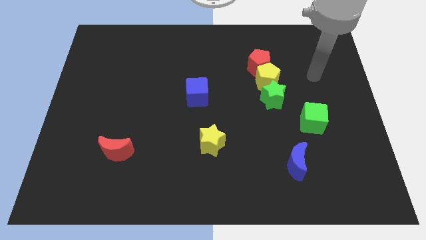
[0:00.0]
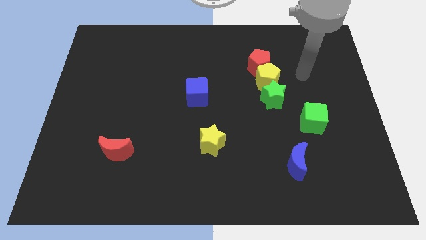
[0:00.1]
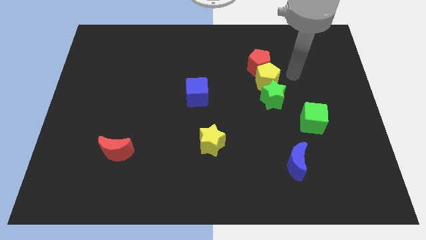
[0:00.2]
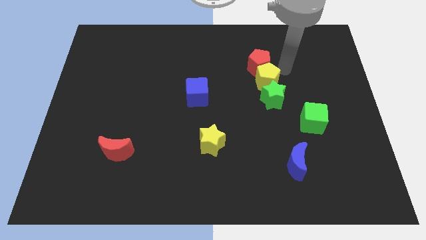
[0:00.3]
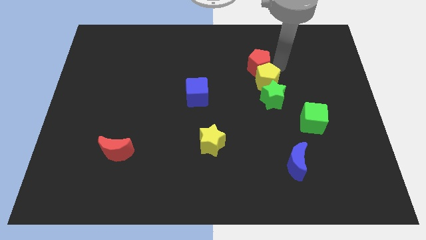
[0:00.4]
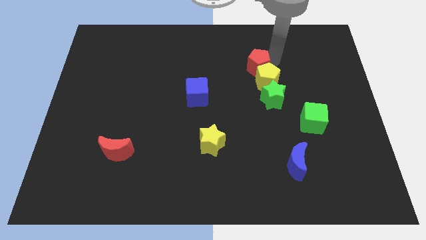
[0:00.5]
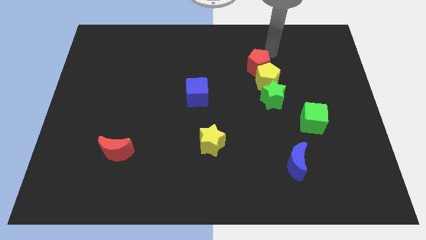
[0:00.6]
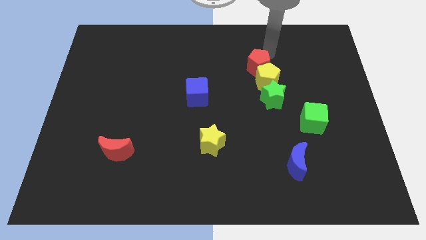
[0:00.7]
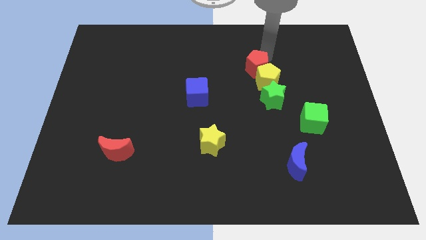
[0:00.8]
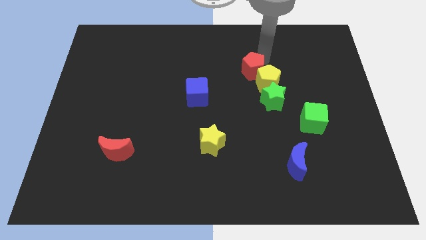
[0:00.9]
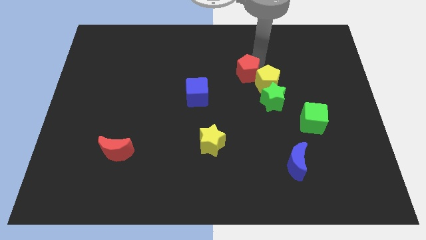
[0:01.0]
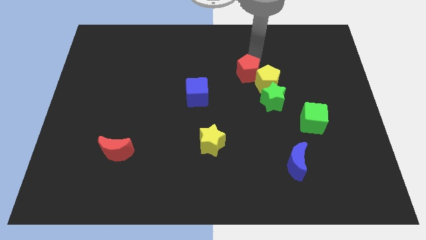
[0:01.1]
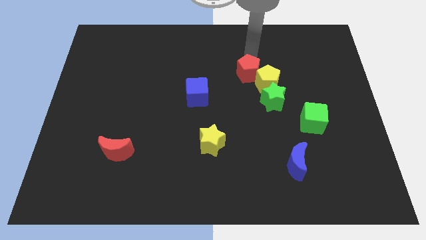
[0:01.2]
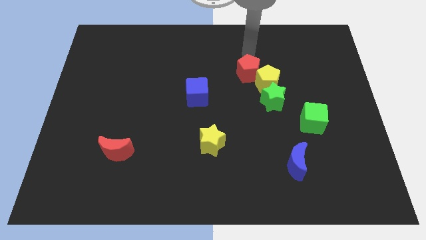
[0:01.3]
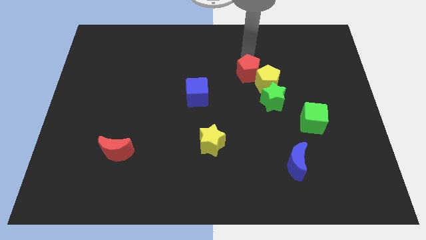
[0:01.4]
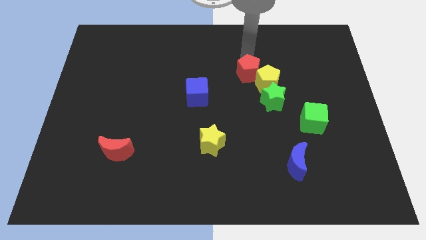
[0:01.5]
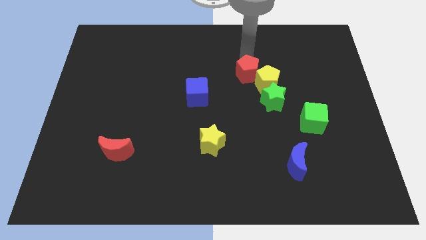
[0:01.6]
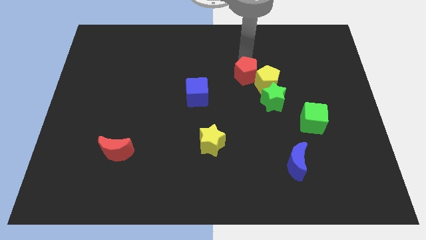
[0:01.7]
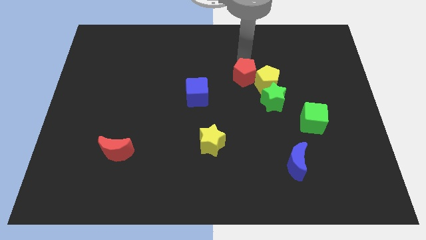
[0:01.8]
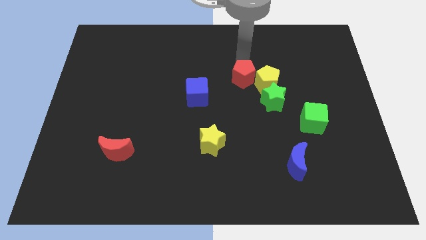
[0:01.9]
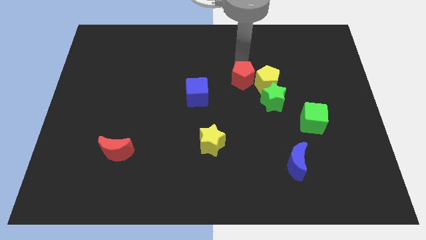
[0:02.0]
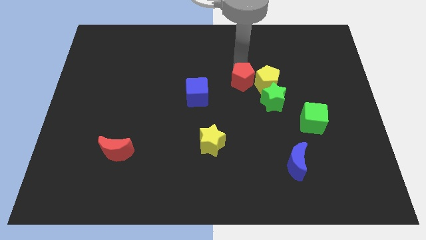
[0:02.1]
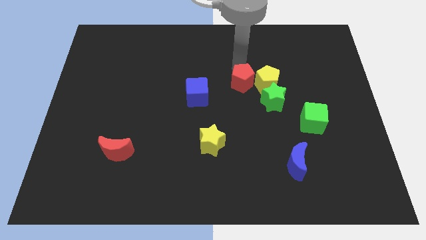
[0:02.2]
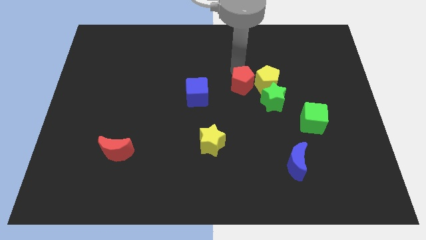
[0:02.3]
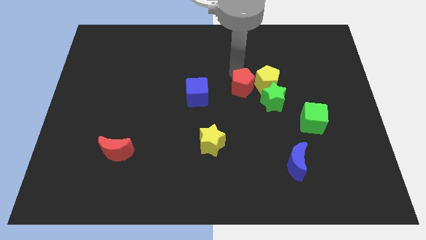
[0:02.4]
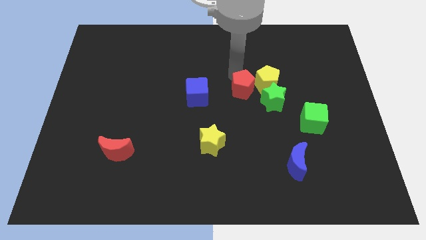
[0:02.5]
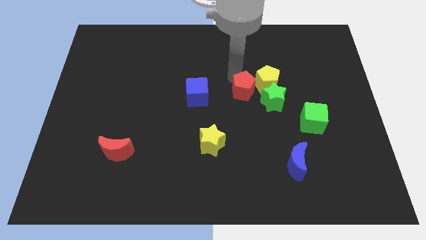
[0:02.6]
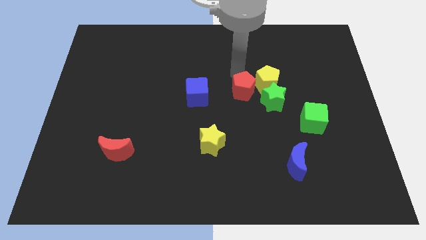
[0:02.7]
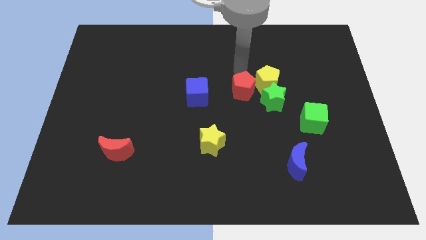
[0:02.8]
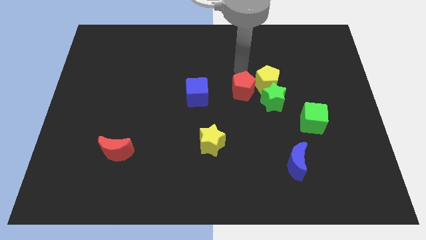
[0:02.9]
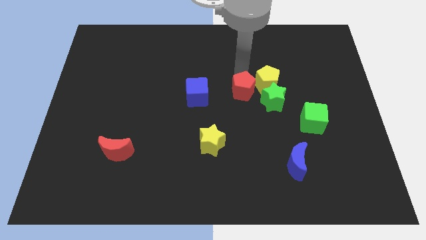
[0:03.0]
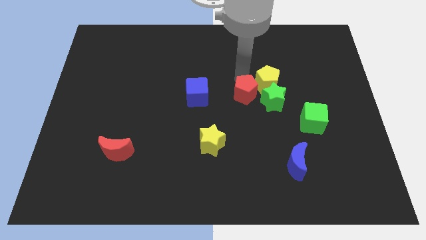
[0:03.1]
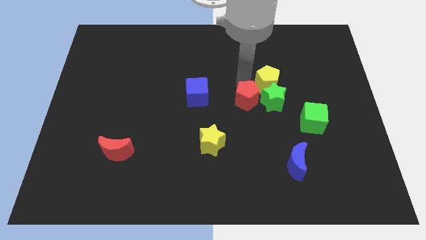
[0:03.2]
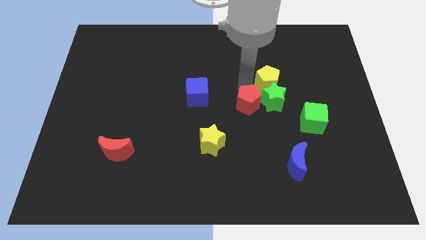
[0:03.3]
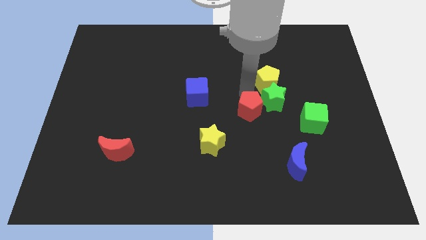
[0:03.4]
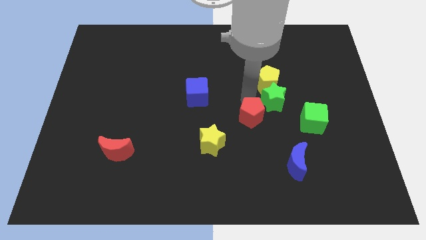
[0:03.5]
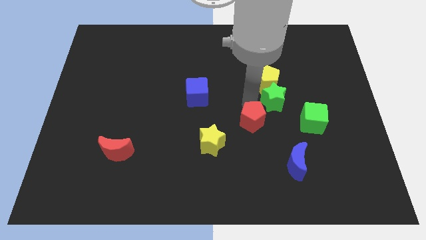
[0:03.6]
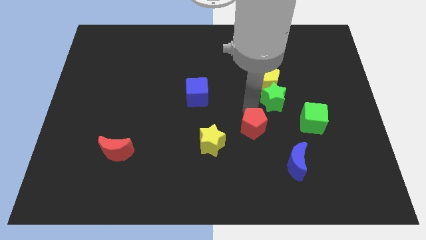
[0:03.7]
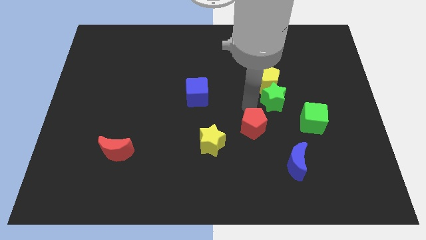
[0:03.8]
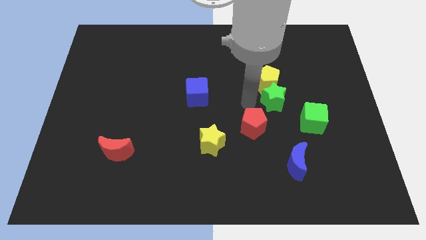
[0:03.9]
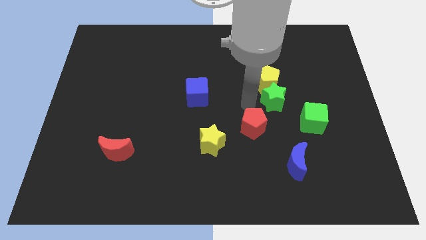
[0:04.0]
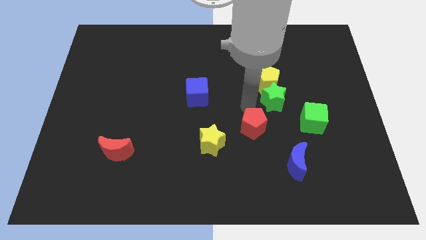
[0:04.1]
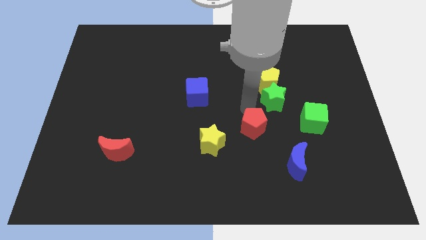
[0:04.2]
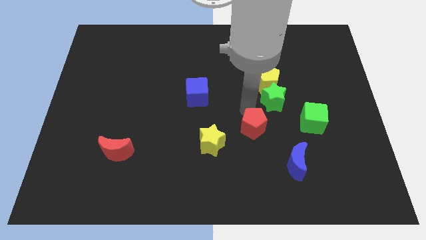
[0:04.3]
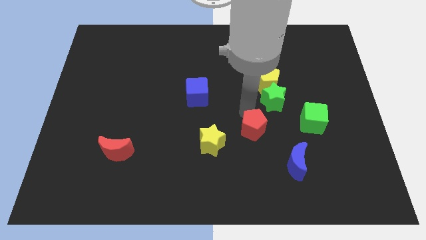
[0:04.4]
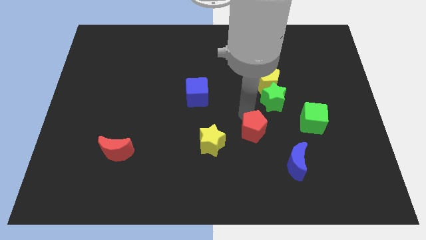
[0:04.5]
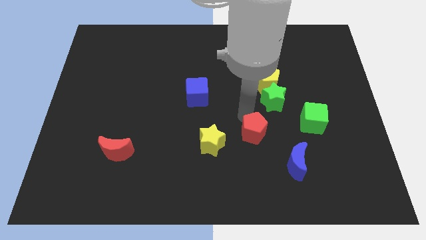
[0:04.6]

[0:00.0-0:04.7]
slide the red pentagon downwards

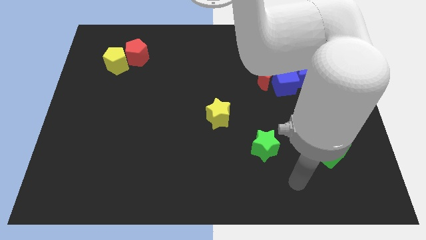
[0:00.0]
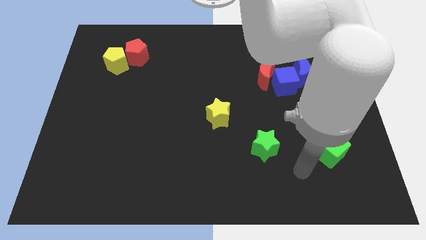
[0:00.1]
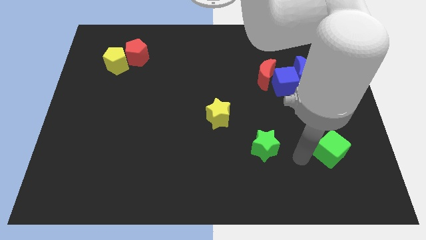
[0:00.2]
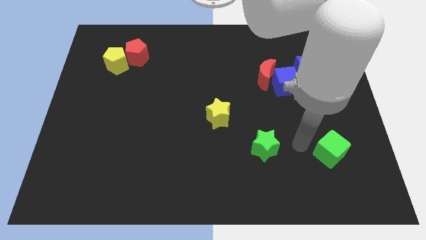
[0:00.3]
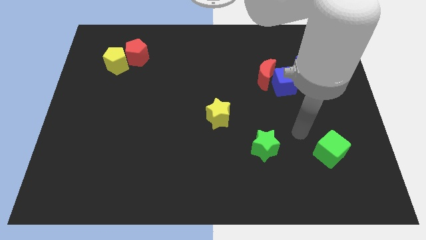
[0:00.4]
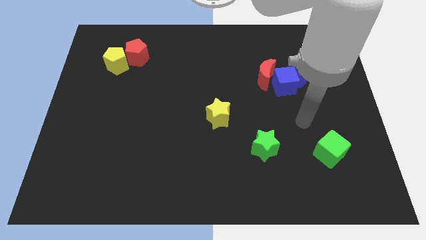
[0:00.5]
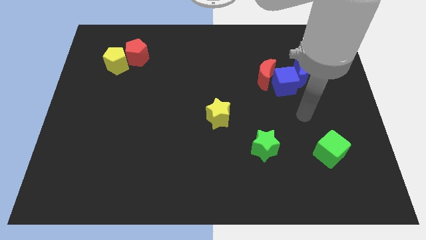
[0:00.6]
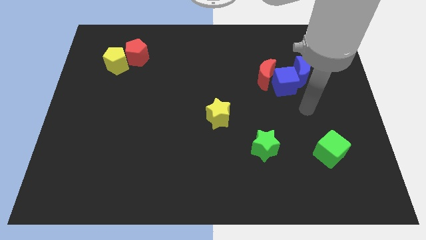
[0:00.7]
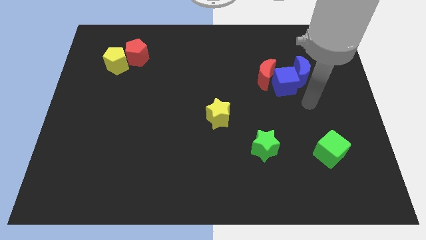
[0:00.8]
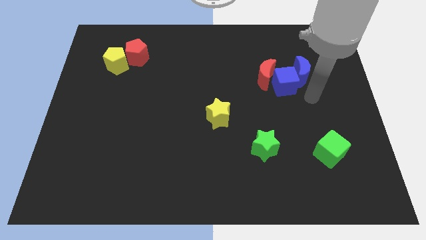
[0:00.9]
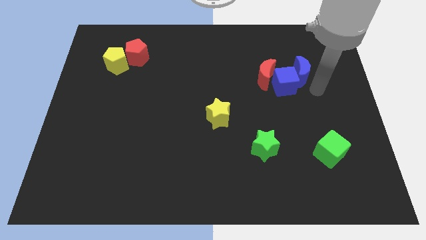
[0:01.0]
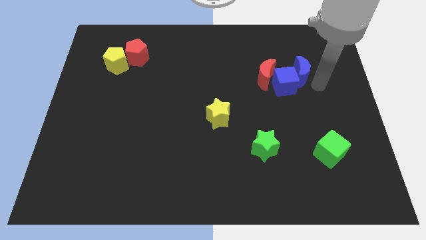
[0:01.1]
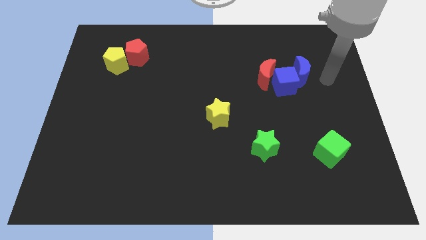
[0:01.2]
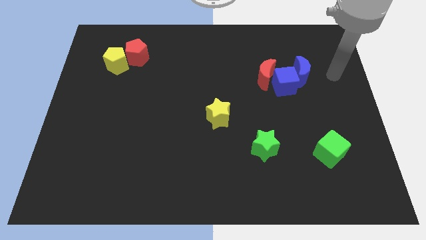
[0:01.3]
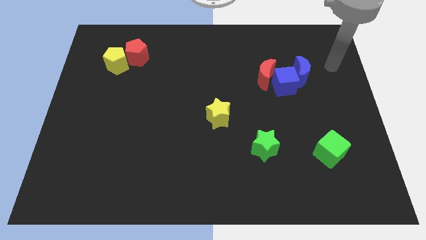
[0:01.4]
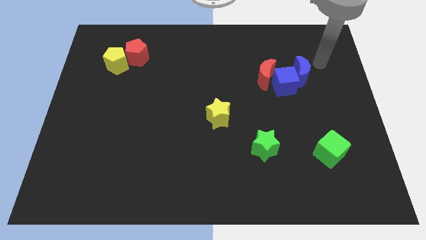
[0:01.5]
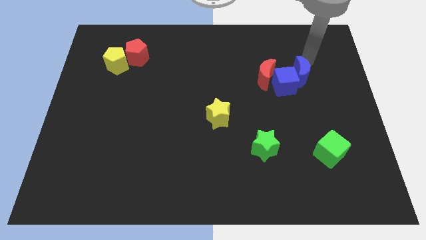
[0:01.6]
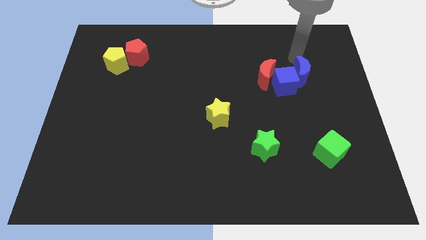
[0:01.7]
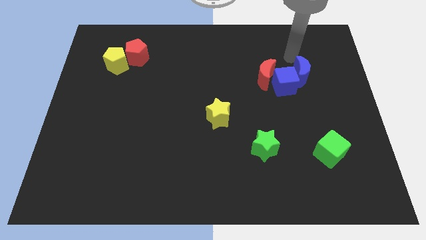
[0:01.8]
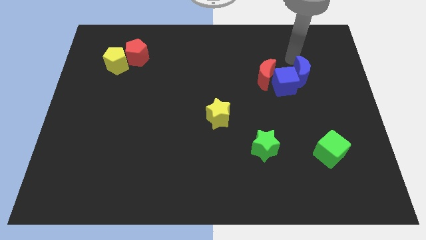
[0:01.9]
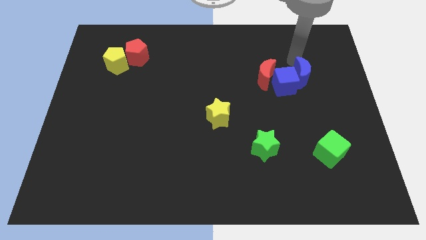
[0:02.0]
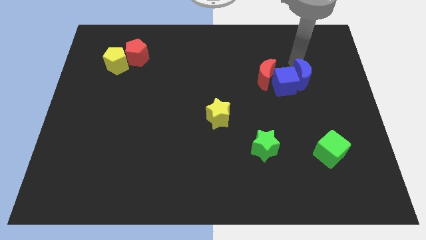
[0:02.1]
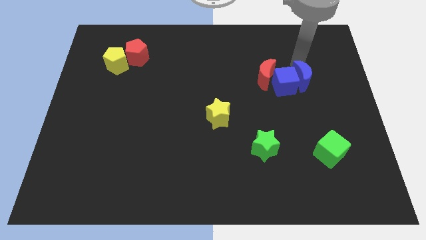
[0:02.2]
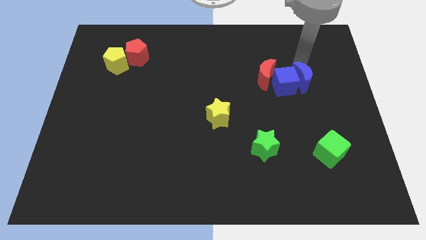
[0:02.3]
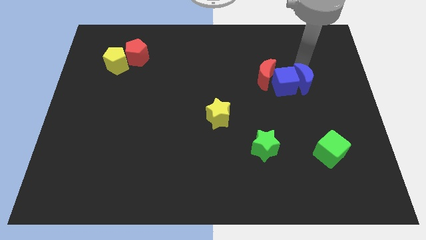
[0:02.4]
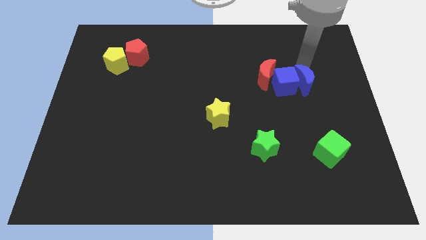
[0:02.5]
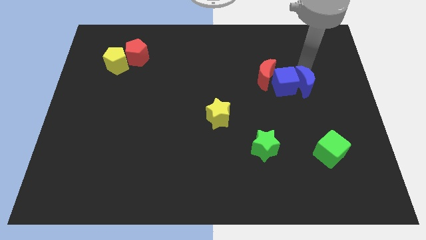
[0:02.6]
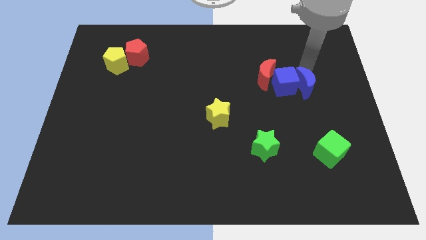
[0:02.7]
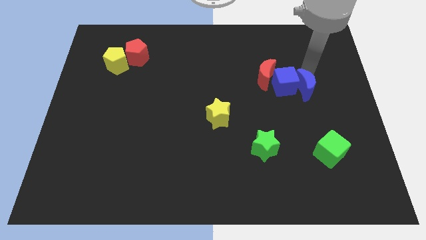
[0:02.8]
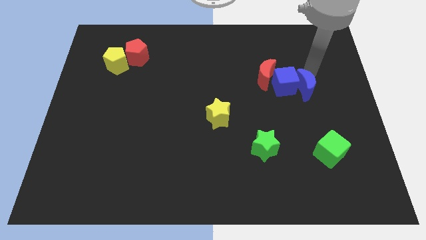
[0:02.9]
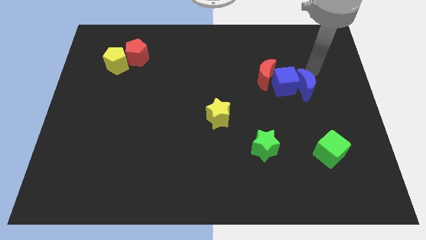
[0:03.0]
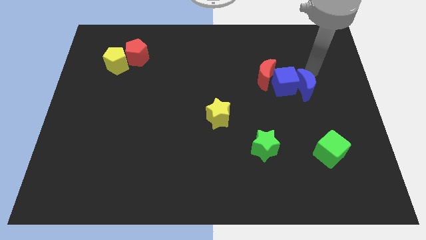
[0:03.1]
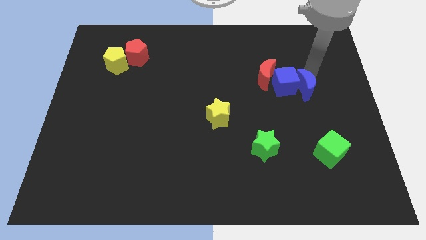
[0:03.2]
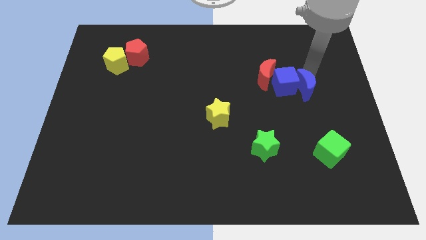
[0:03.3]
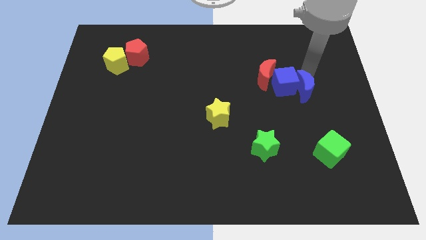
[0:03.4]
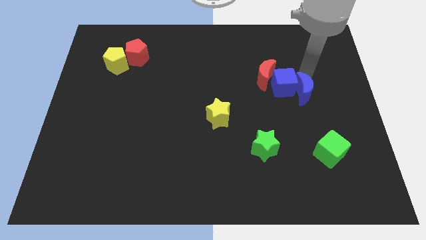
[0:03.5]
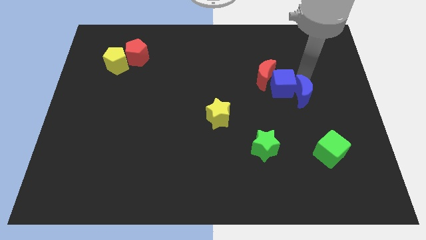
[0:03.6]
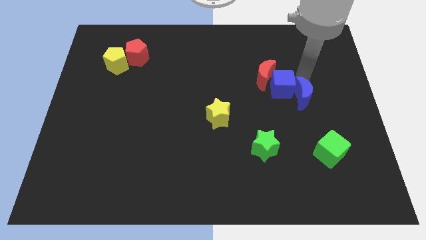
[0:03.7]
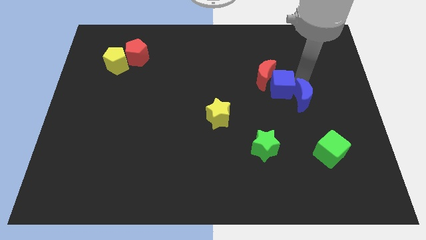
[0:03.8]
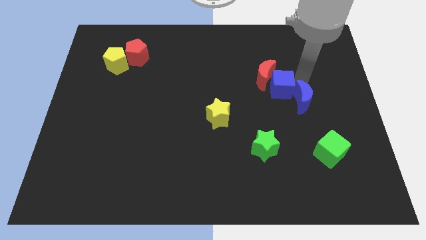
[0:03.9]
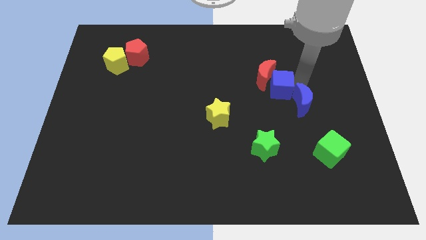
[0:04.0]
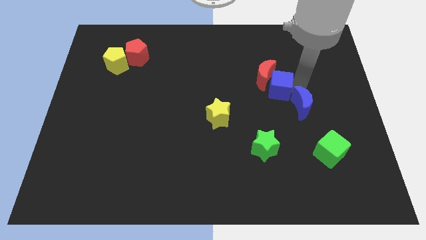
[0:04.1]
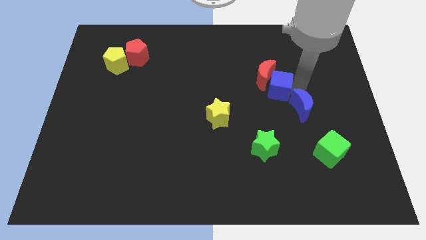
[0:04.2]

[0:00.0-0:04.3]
slightly push the blue moon down and then to the left
